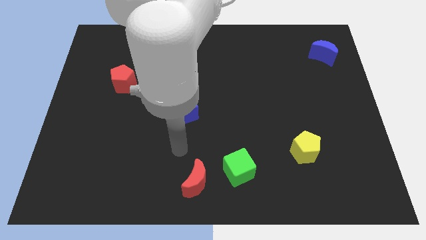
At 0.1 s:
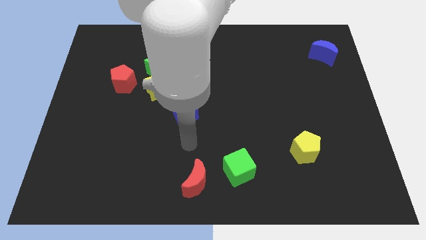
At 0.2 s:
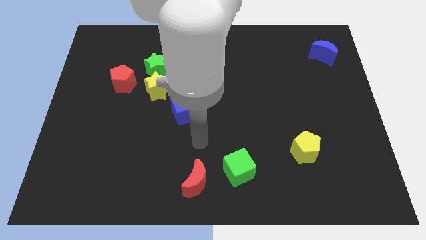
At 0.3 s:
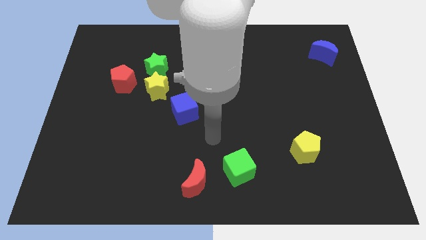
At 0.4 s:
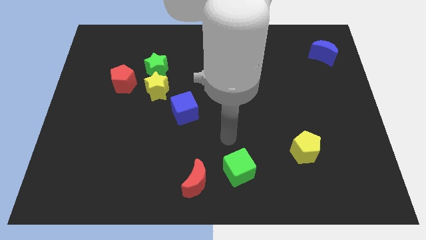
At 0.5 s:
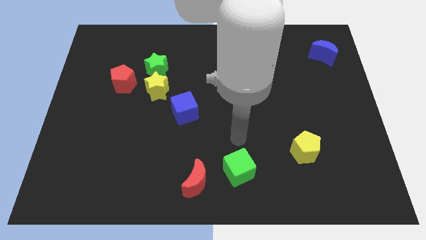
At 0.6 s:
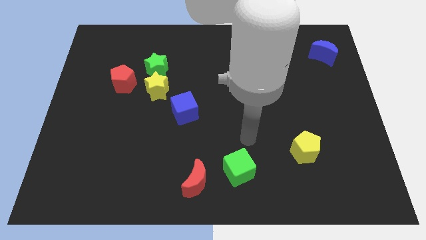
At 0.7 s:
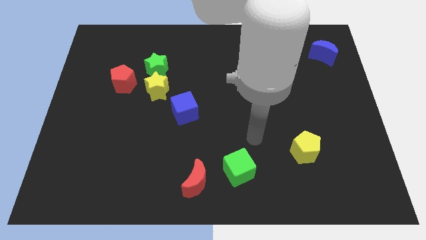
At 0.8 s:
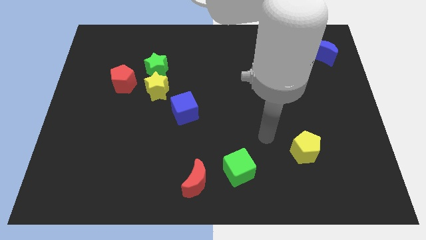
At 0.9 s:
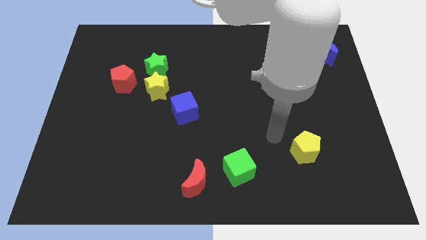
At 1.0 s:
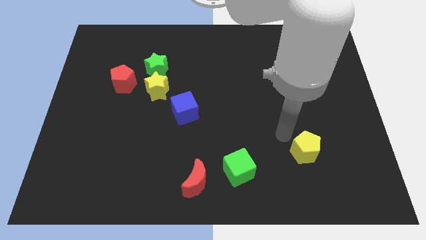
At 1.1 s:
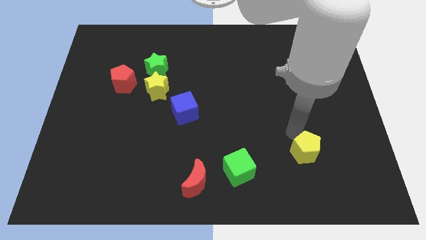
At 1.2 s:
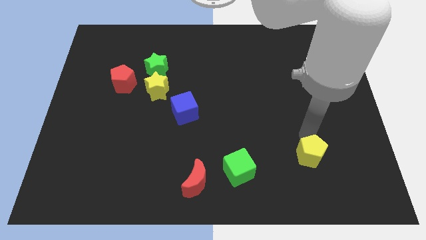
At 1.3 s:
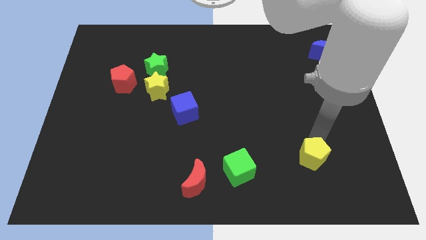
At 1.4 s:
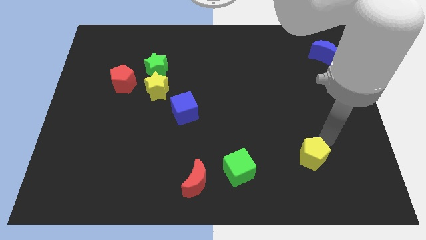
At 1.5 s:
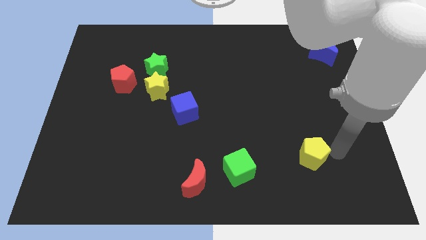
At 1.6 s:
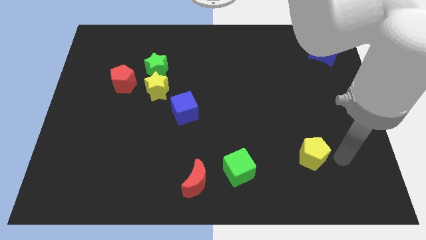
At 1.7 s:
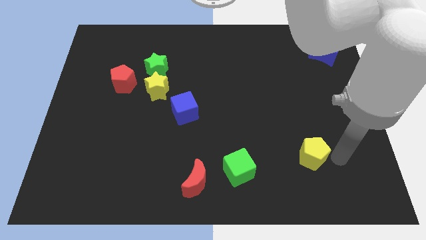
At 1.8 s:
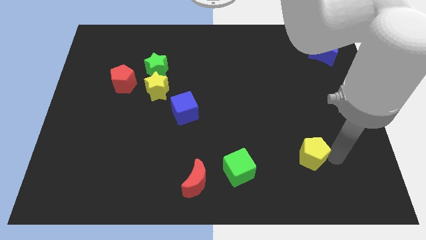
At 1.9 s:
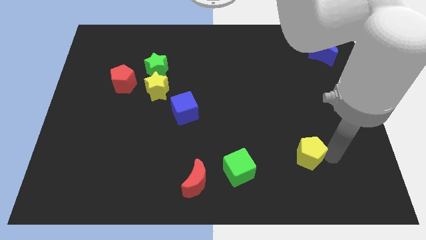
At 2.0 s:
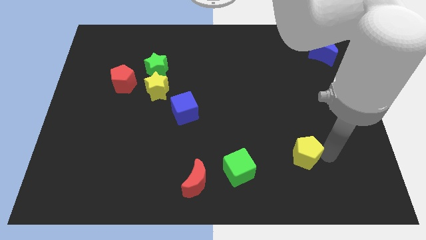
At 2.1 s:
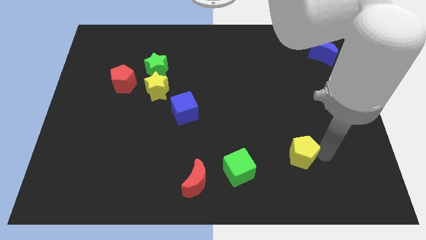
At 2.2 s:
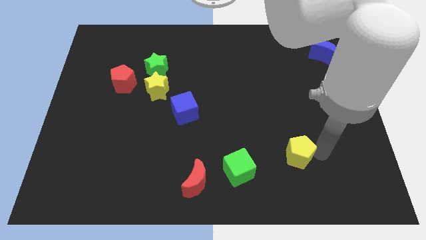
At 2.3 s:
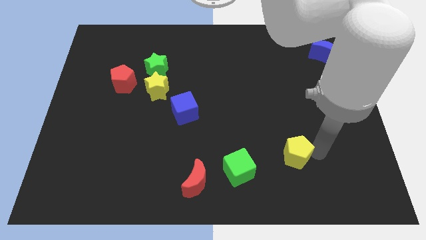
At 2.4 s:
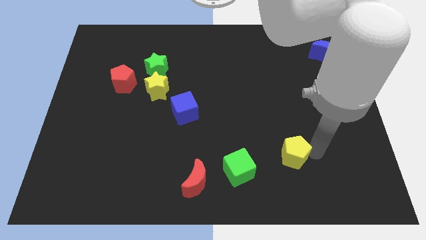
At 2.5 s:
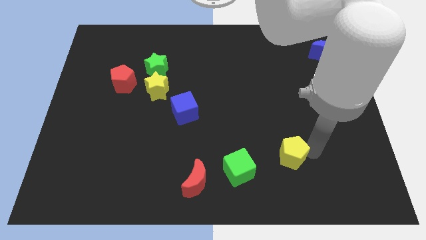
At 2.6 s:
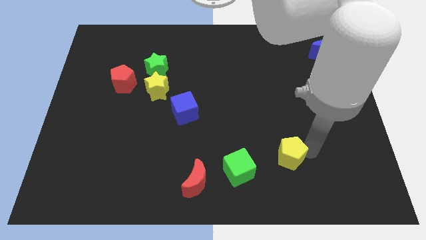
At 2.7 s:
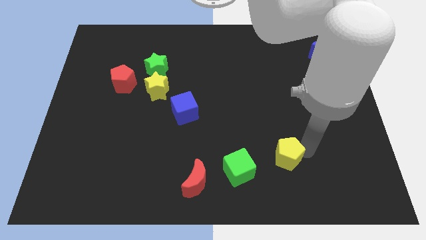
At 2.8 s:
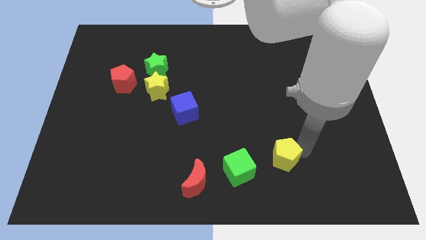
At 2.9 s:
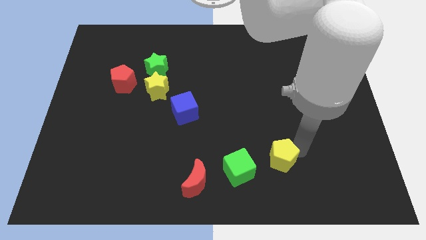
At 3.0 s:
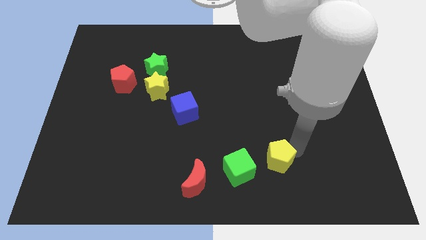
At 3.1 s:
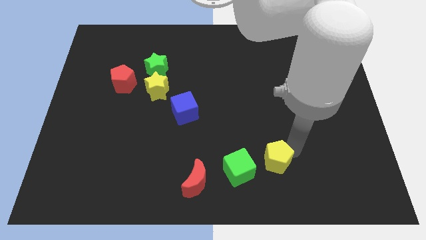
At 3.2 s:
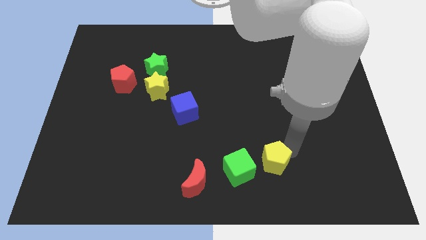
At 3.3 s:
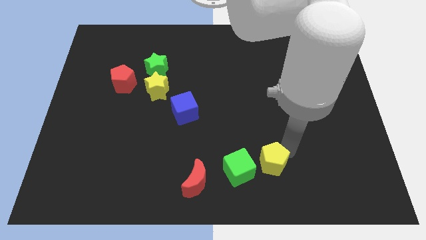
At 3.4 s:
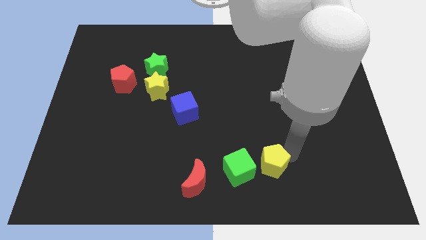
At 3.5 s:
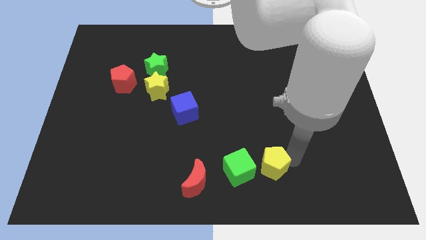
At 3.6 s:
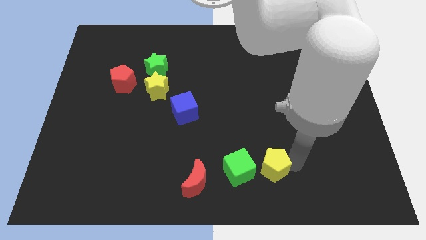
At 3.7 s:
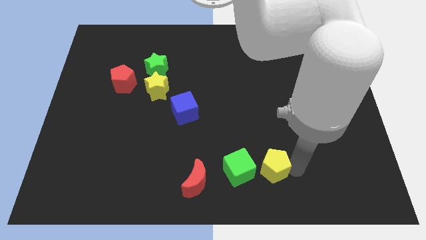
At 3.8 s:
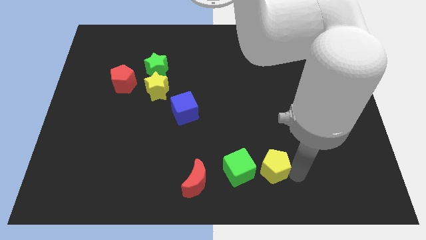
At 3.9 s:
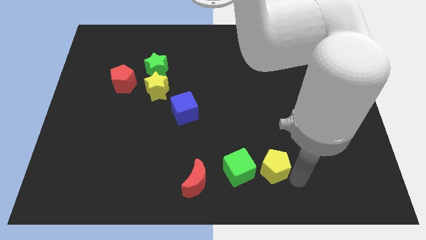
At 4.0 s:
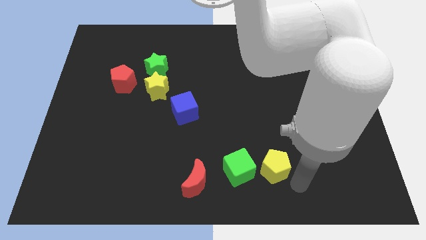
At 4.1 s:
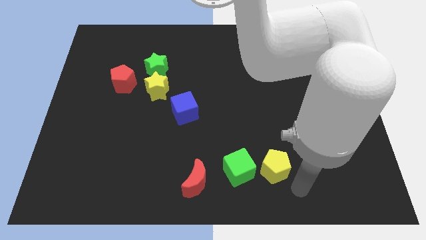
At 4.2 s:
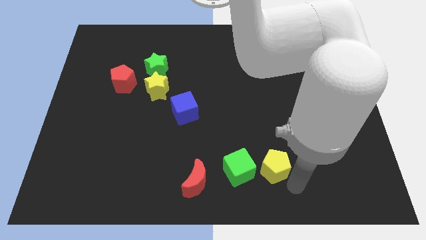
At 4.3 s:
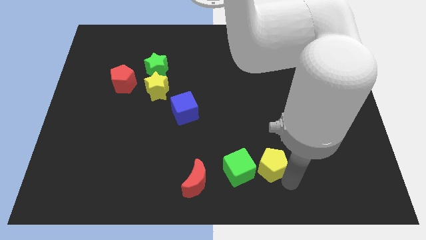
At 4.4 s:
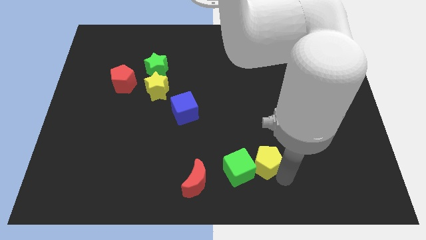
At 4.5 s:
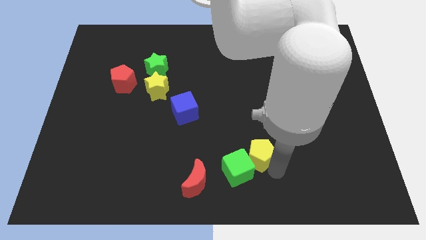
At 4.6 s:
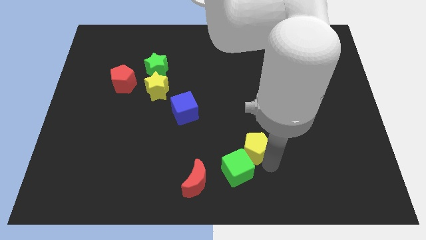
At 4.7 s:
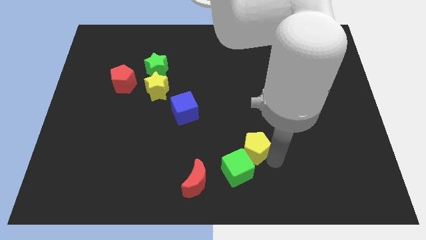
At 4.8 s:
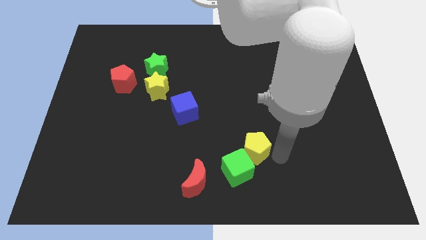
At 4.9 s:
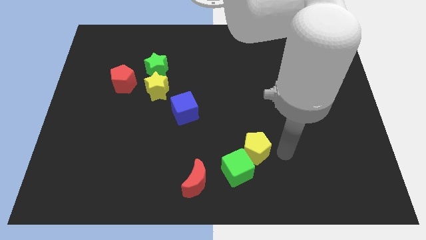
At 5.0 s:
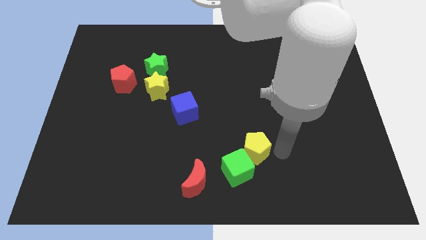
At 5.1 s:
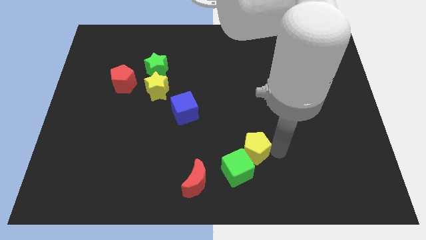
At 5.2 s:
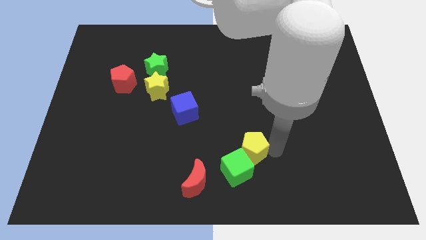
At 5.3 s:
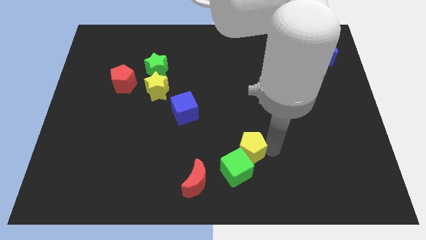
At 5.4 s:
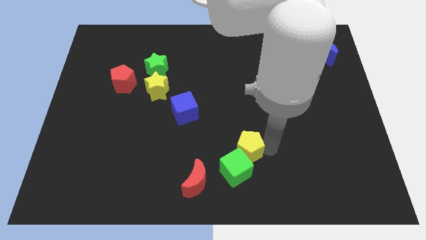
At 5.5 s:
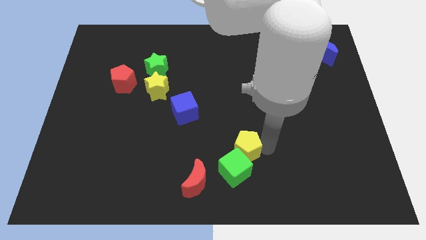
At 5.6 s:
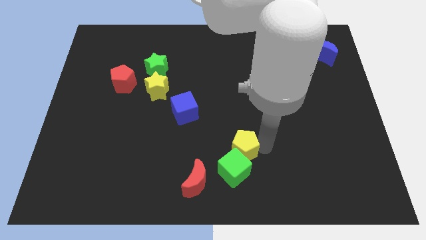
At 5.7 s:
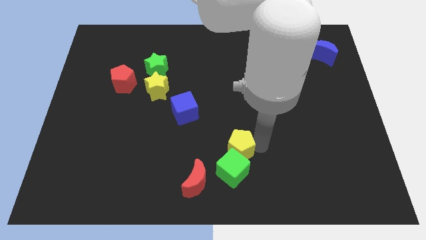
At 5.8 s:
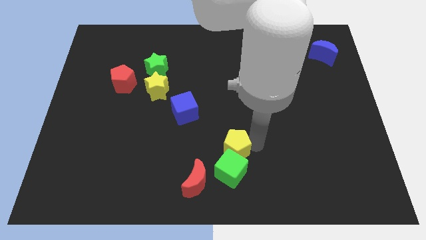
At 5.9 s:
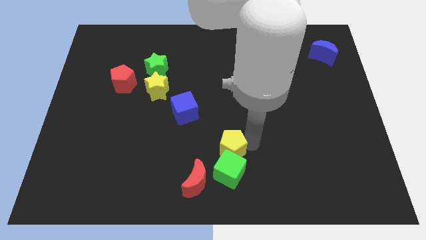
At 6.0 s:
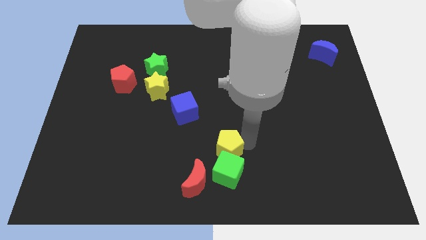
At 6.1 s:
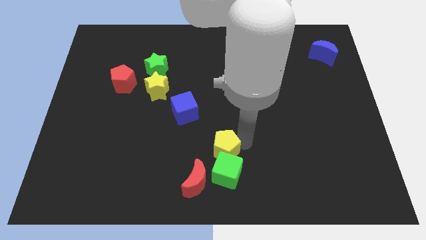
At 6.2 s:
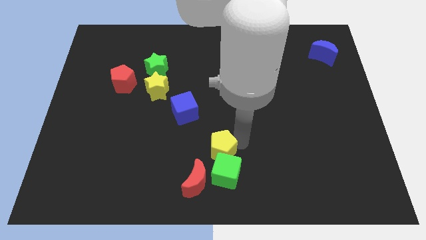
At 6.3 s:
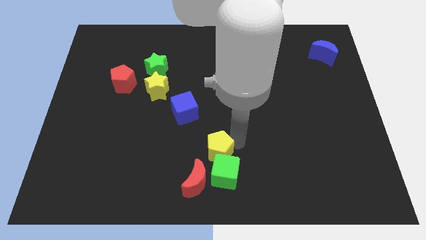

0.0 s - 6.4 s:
put the yellow pentagon above the red moon

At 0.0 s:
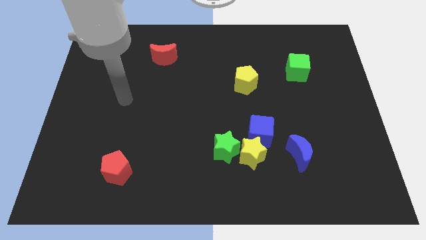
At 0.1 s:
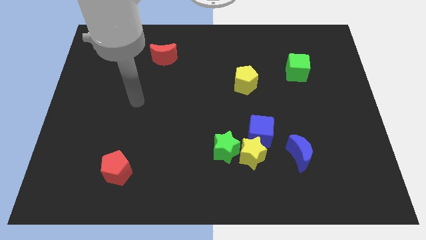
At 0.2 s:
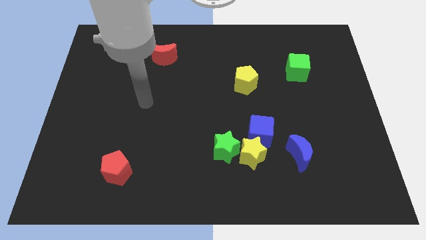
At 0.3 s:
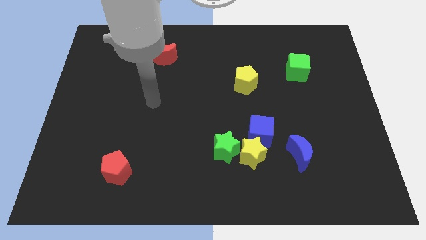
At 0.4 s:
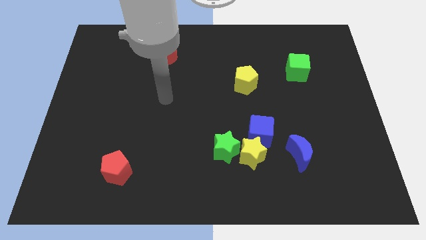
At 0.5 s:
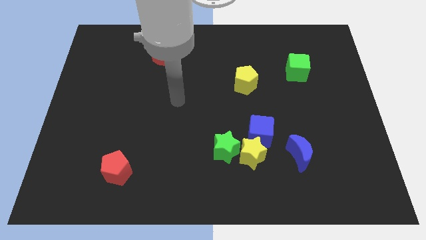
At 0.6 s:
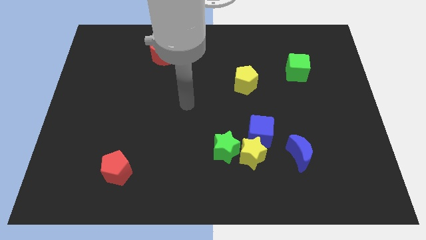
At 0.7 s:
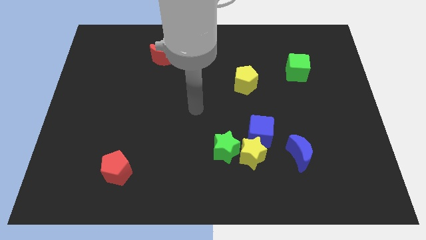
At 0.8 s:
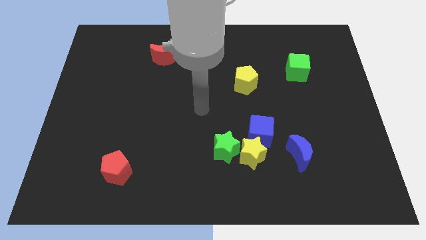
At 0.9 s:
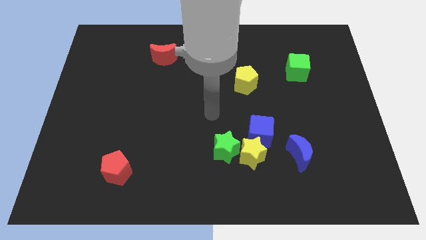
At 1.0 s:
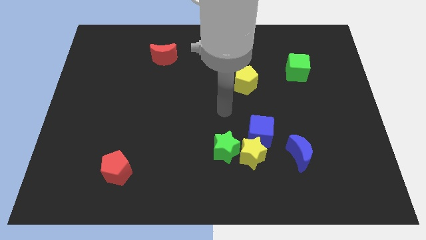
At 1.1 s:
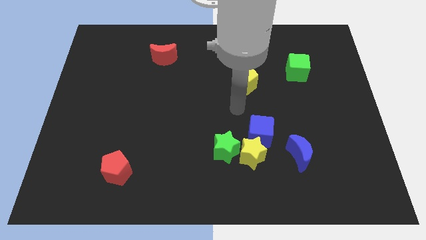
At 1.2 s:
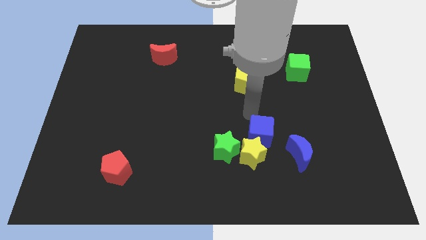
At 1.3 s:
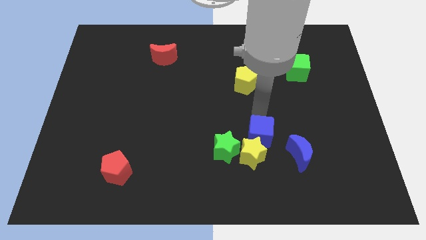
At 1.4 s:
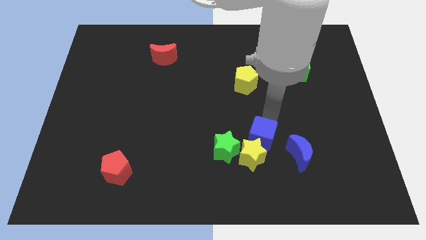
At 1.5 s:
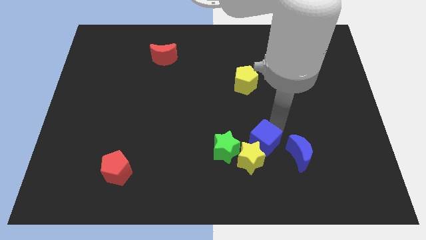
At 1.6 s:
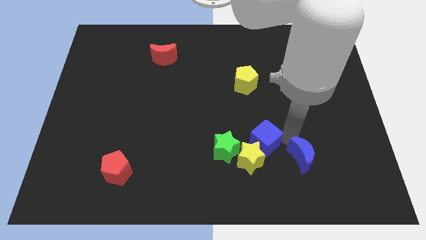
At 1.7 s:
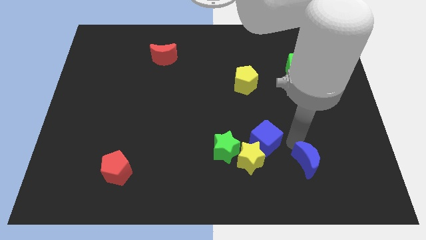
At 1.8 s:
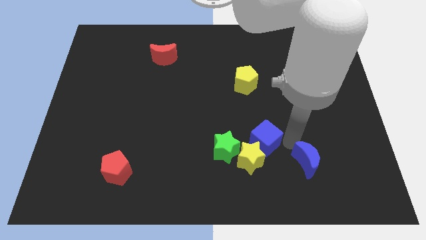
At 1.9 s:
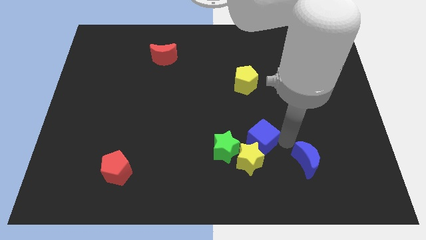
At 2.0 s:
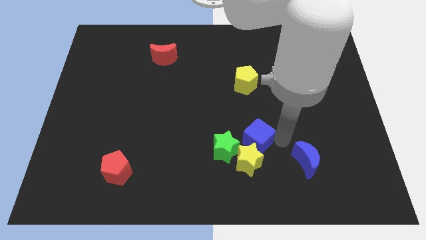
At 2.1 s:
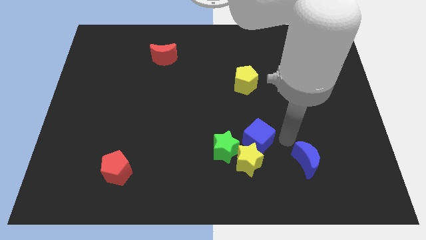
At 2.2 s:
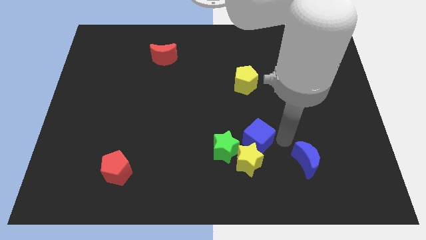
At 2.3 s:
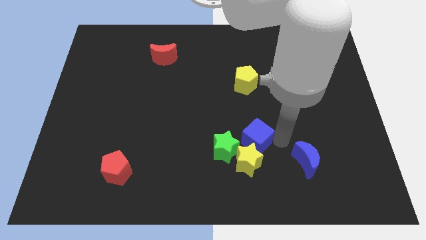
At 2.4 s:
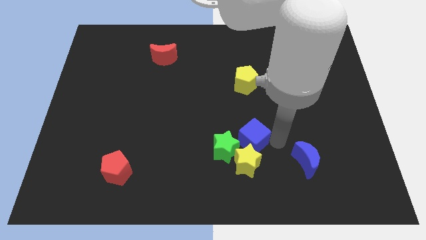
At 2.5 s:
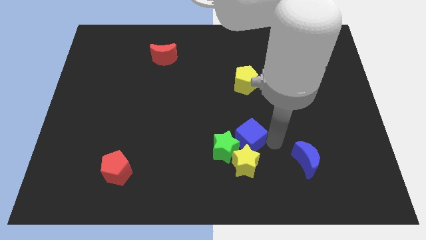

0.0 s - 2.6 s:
push the blue cube to the top left side of the yellow star
